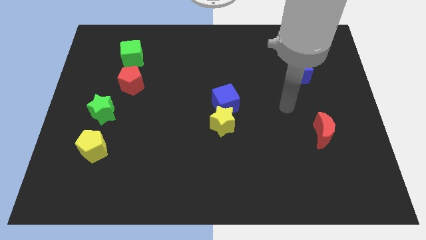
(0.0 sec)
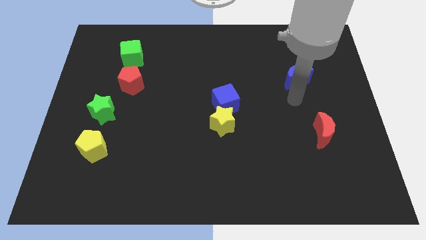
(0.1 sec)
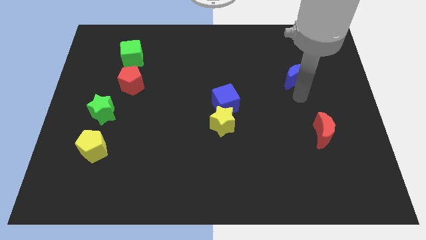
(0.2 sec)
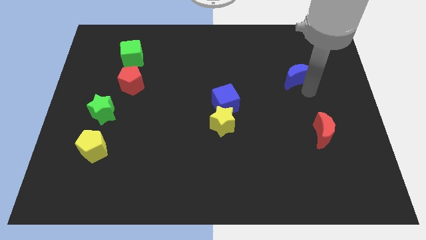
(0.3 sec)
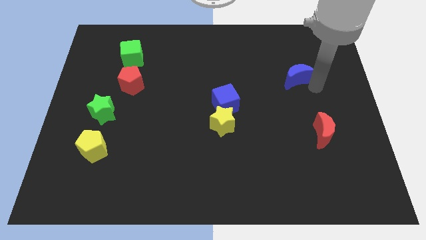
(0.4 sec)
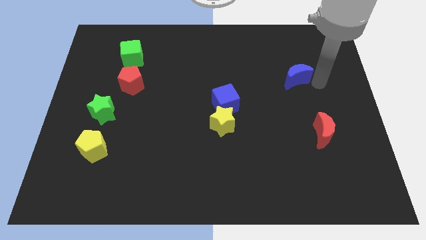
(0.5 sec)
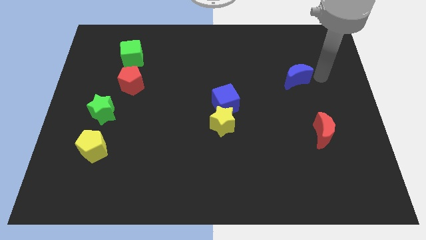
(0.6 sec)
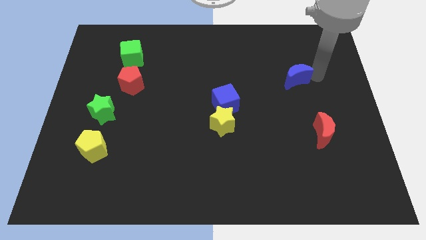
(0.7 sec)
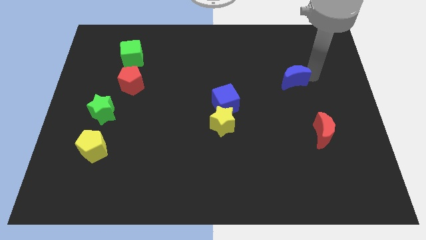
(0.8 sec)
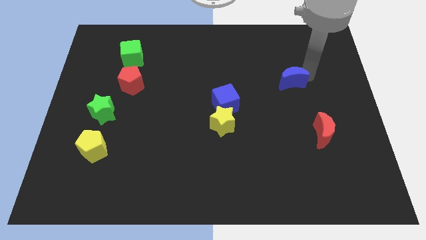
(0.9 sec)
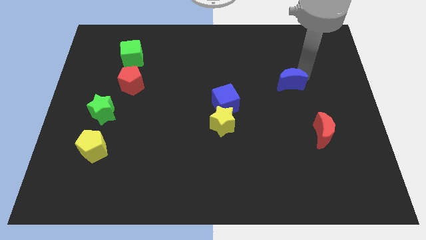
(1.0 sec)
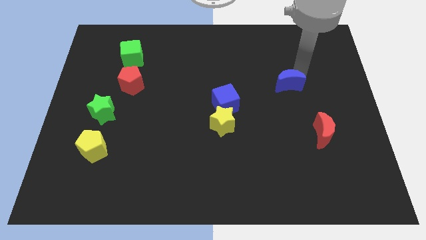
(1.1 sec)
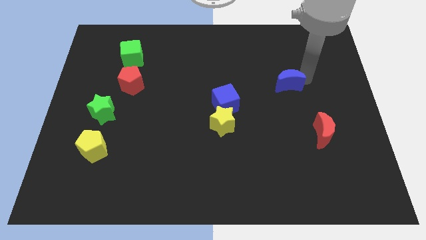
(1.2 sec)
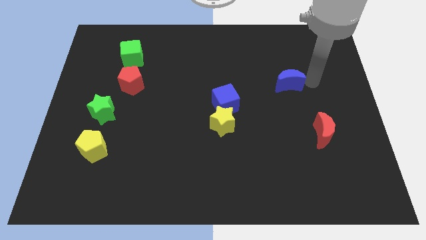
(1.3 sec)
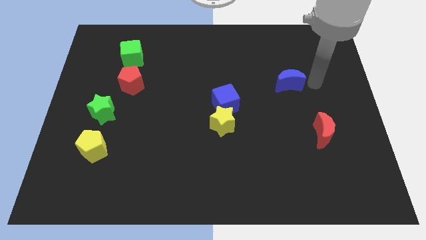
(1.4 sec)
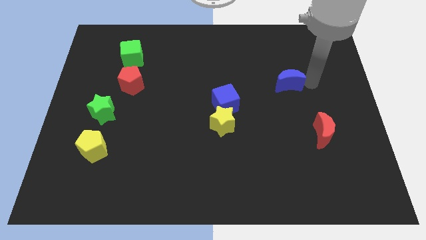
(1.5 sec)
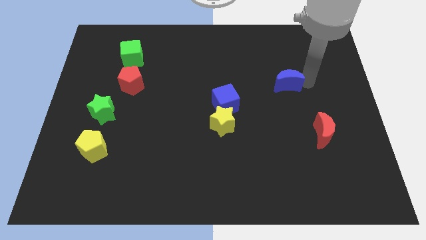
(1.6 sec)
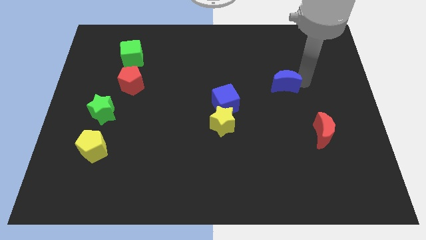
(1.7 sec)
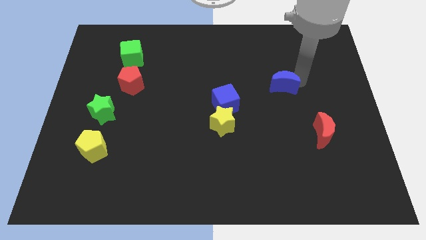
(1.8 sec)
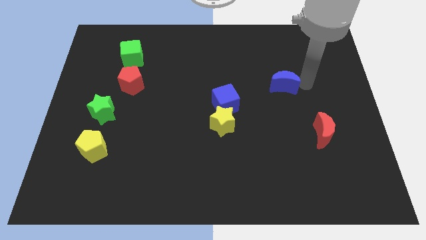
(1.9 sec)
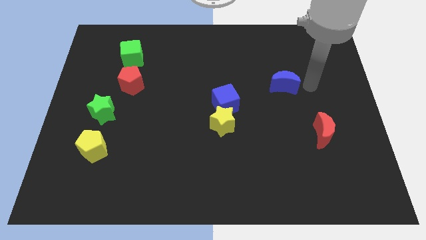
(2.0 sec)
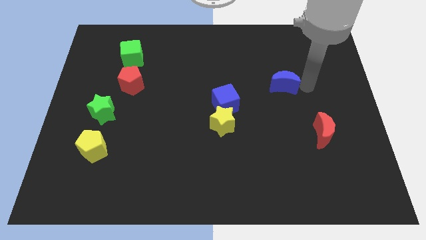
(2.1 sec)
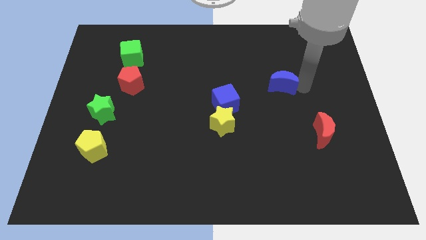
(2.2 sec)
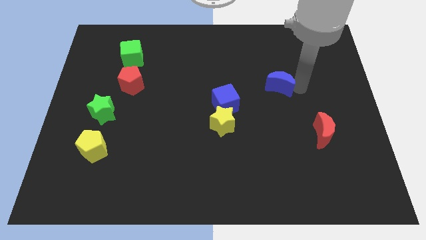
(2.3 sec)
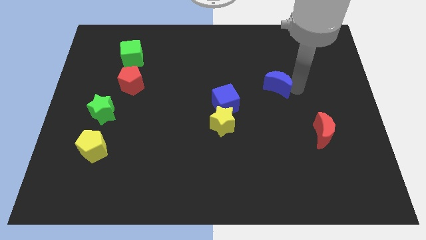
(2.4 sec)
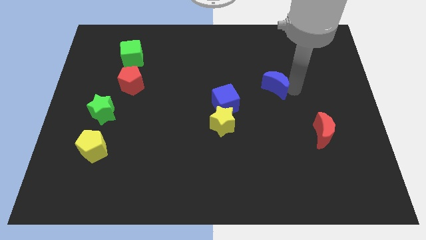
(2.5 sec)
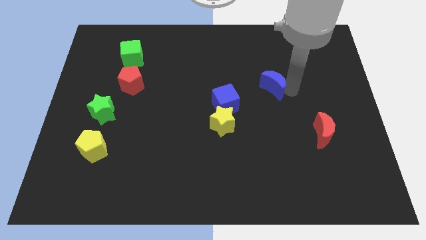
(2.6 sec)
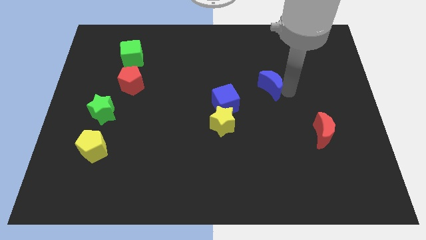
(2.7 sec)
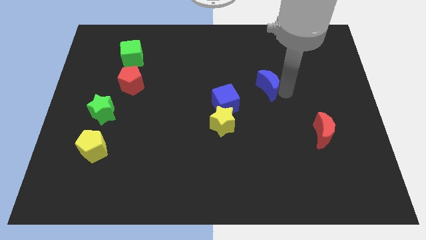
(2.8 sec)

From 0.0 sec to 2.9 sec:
slightly move the blue moon to the left

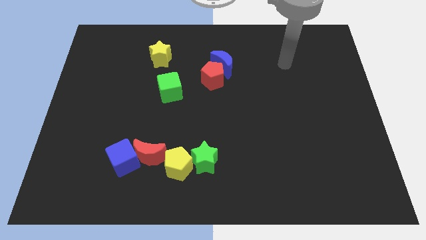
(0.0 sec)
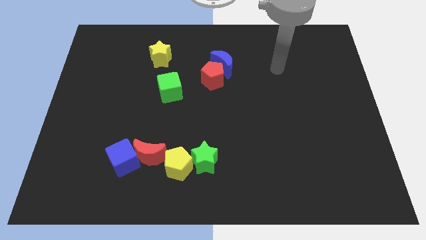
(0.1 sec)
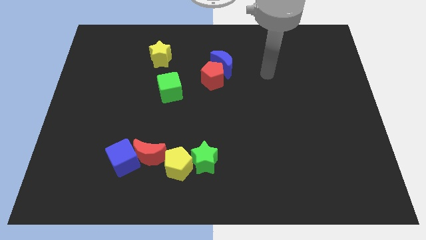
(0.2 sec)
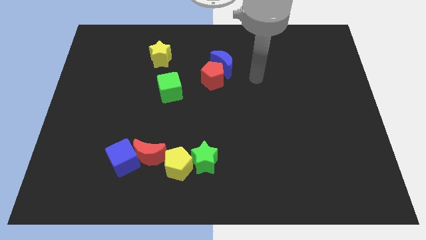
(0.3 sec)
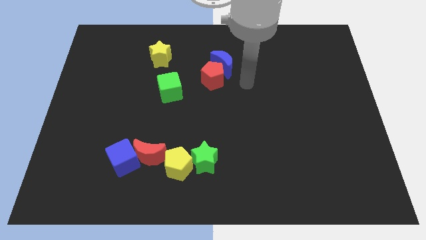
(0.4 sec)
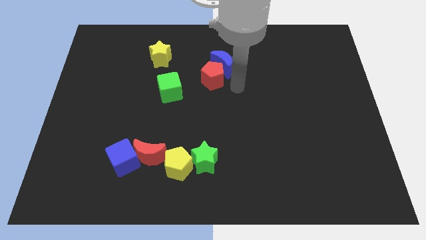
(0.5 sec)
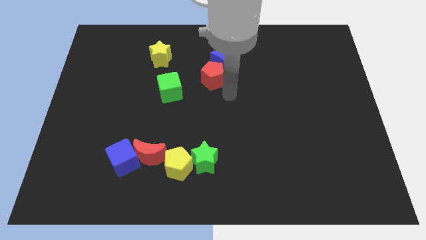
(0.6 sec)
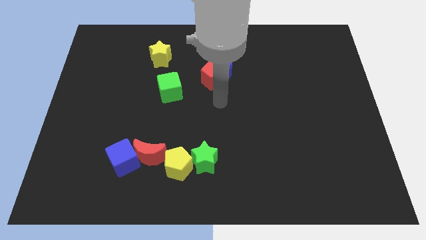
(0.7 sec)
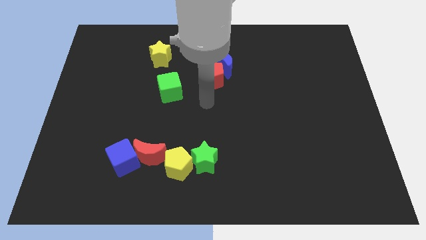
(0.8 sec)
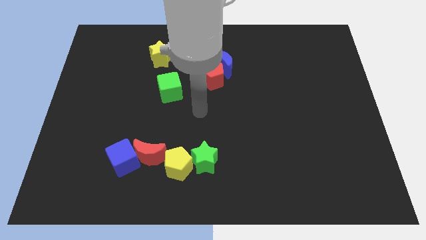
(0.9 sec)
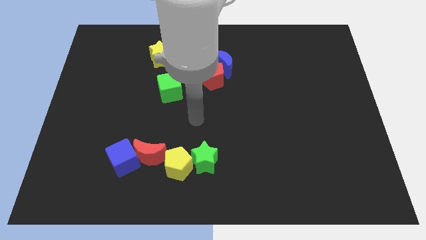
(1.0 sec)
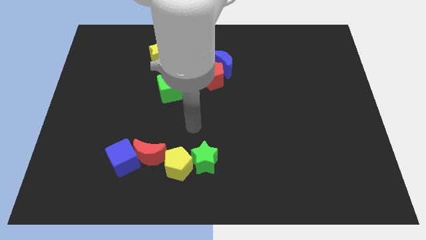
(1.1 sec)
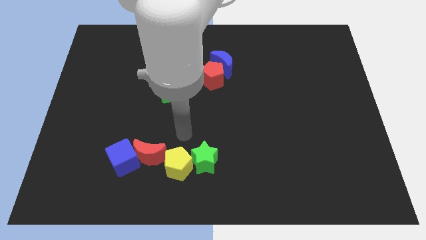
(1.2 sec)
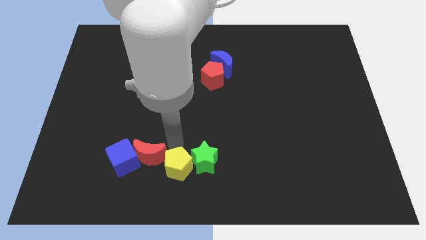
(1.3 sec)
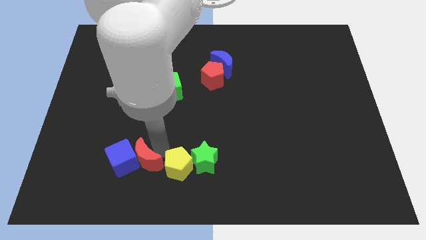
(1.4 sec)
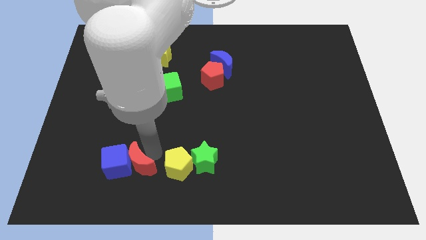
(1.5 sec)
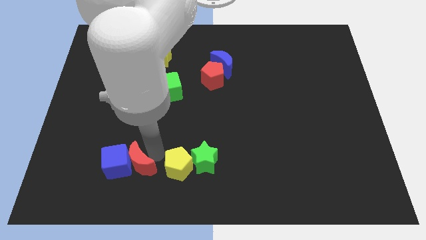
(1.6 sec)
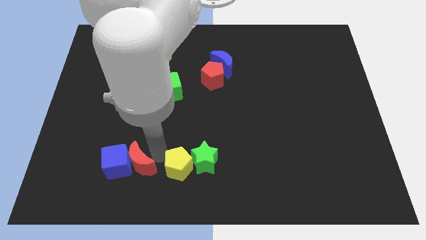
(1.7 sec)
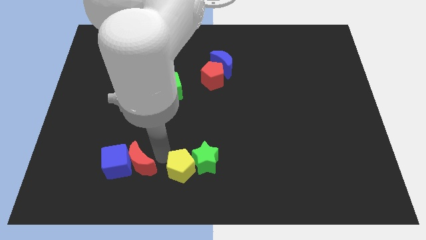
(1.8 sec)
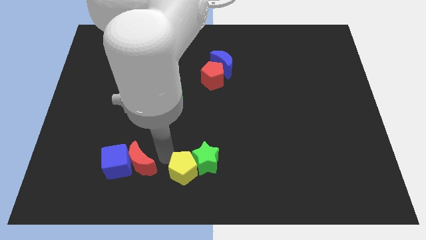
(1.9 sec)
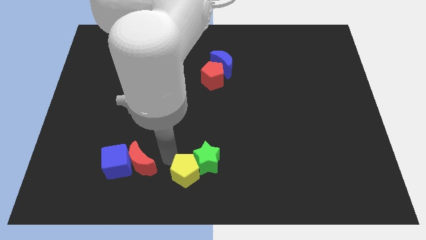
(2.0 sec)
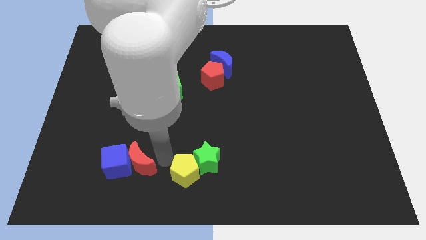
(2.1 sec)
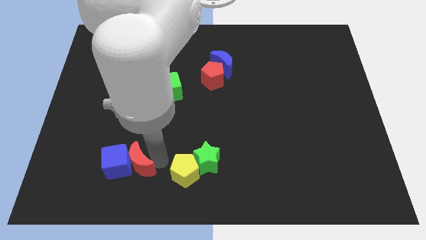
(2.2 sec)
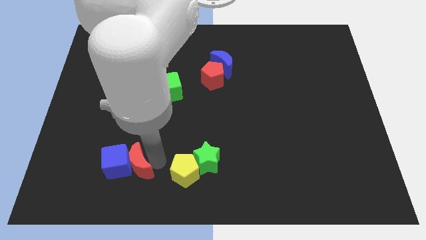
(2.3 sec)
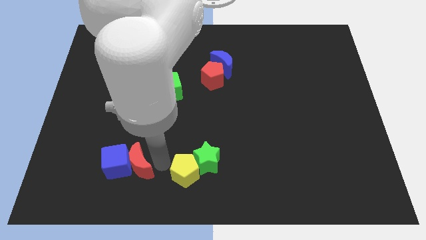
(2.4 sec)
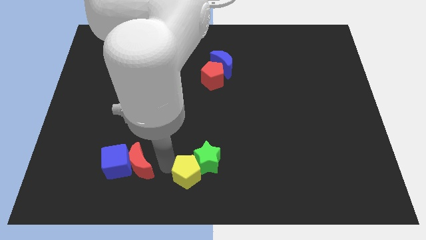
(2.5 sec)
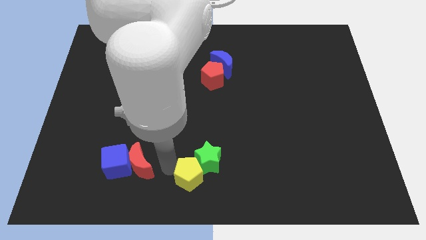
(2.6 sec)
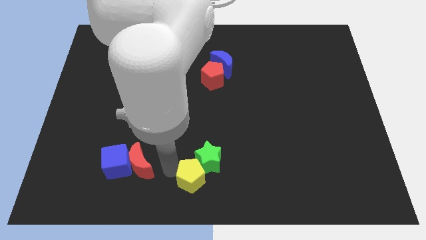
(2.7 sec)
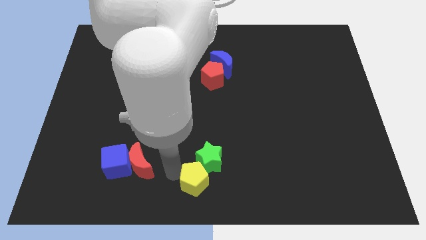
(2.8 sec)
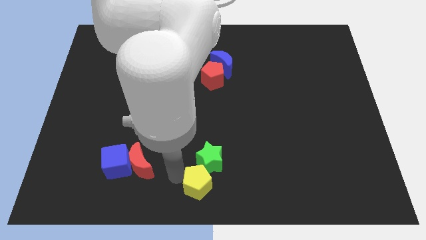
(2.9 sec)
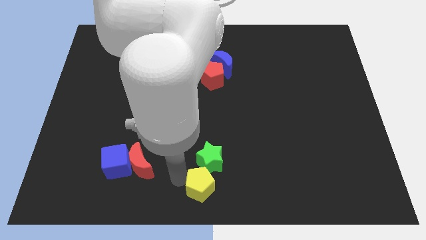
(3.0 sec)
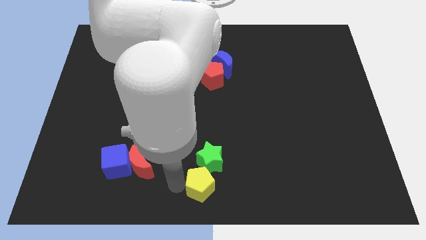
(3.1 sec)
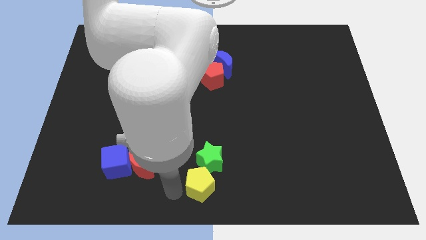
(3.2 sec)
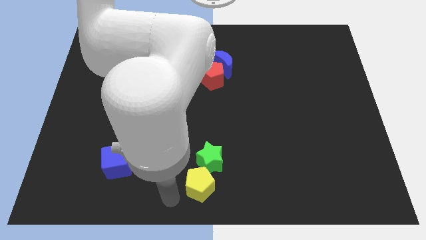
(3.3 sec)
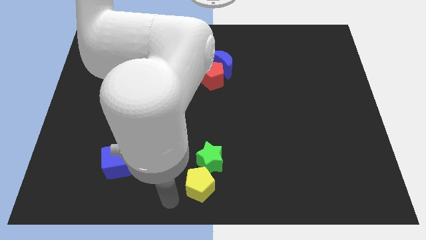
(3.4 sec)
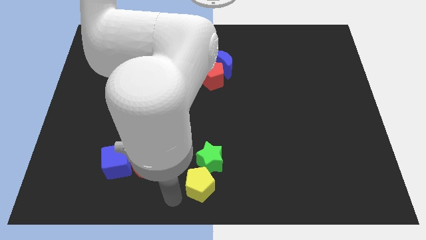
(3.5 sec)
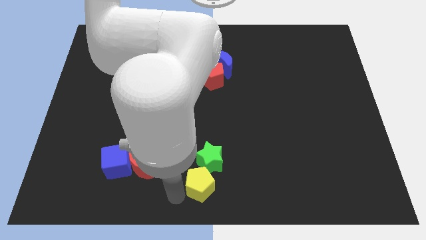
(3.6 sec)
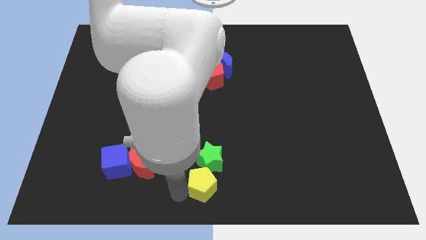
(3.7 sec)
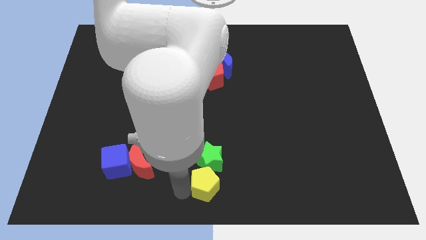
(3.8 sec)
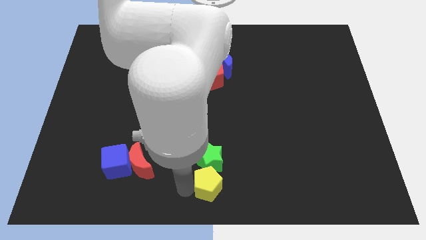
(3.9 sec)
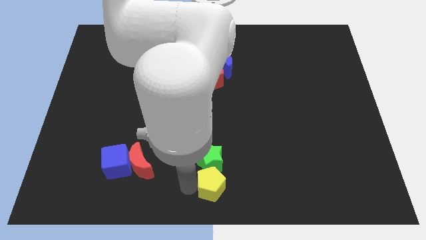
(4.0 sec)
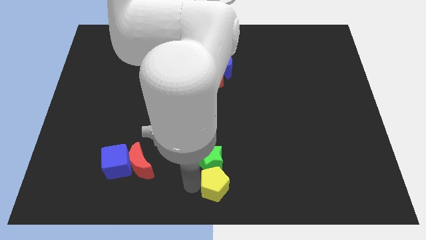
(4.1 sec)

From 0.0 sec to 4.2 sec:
slide the yellow pentagon to the right somewhat

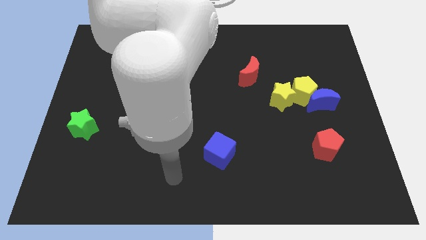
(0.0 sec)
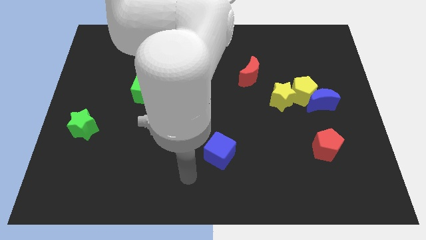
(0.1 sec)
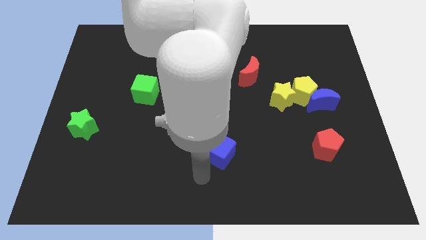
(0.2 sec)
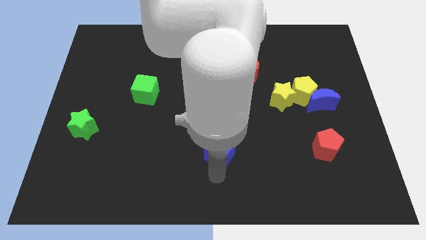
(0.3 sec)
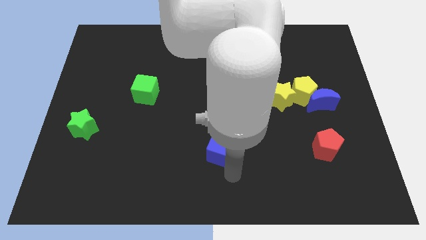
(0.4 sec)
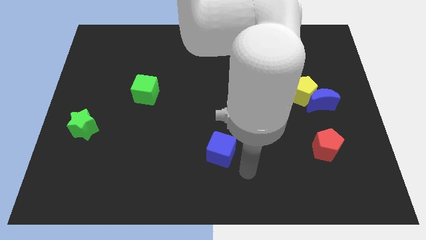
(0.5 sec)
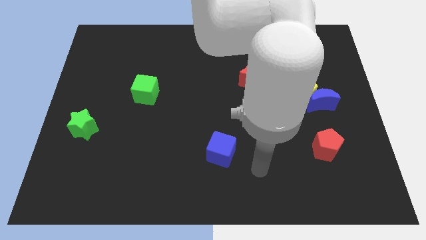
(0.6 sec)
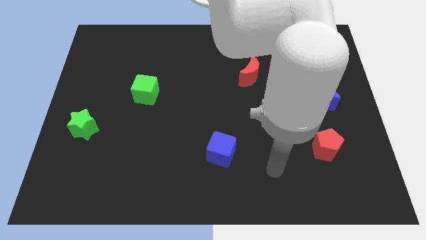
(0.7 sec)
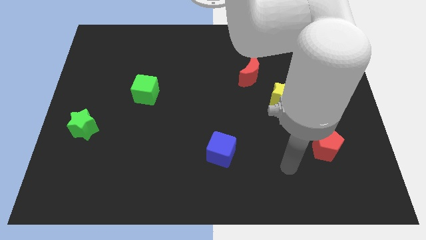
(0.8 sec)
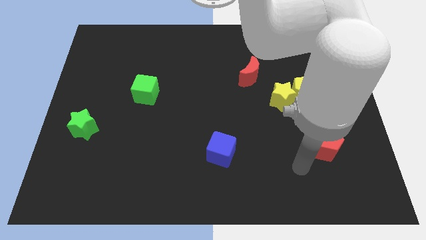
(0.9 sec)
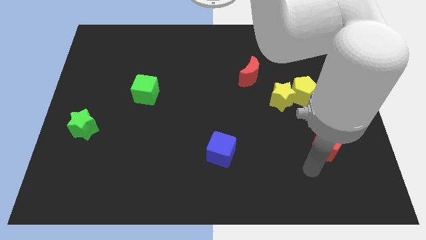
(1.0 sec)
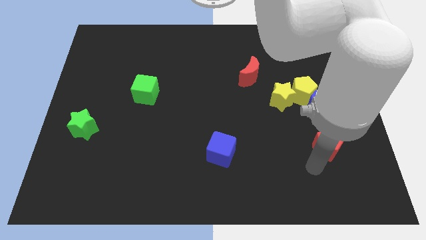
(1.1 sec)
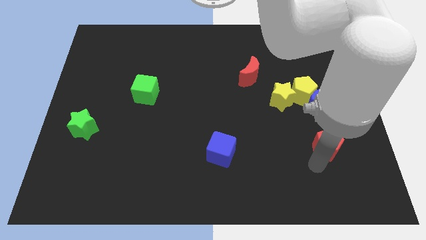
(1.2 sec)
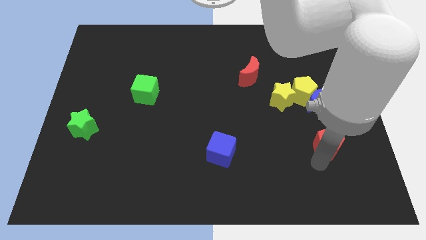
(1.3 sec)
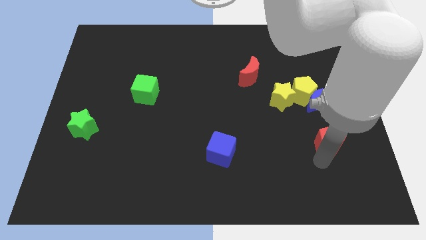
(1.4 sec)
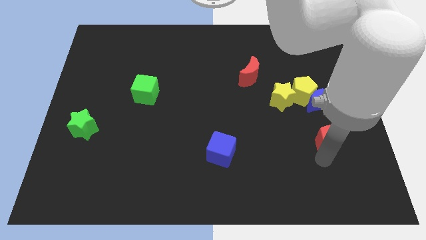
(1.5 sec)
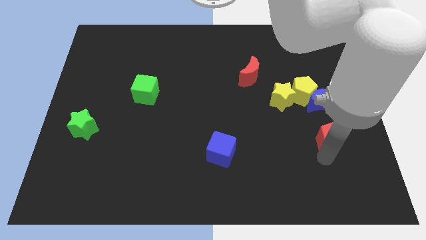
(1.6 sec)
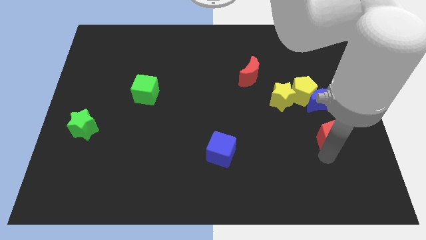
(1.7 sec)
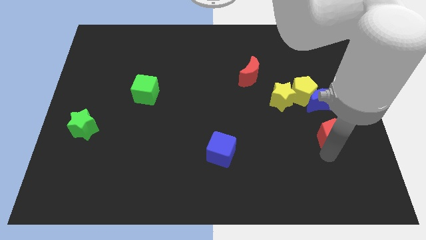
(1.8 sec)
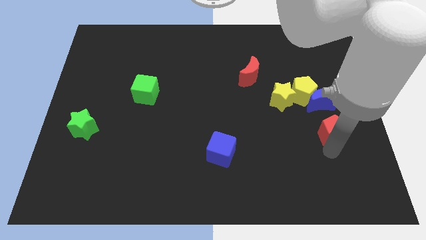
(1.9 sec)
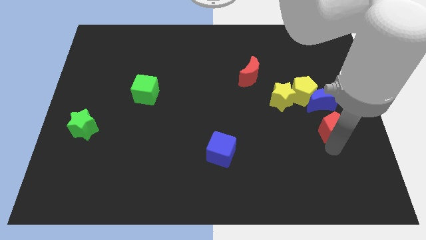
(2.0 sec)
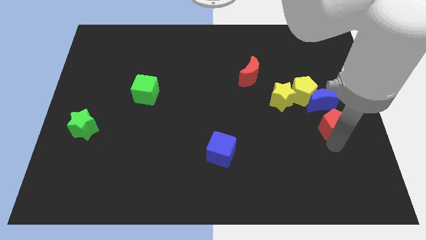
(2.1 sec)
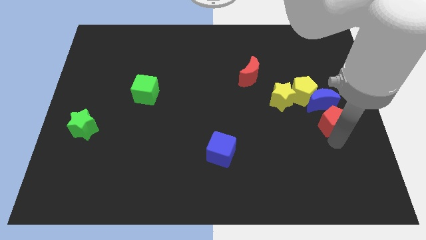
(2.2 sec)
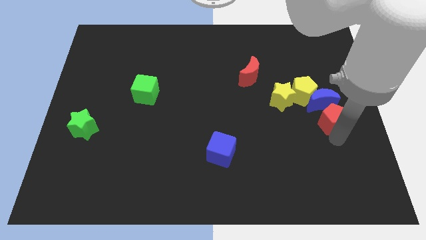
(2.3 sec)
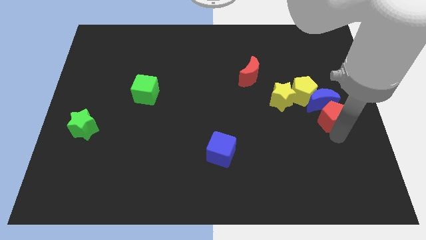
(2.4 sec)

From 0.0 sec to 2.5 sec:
slightly slide the red pentagon up
